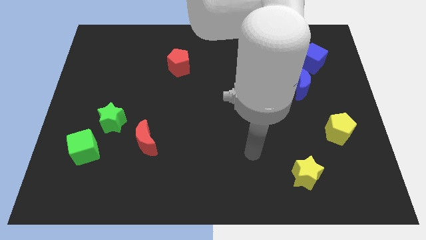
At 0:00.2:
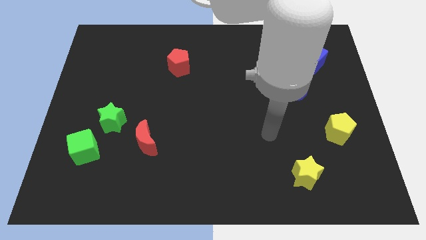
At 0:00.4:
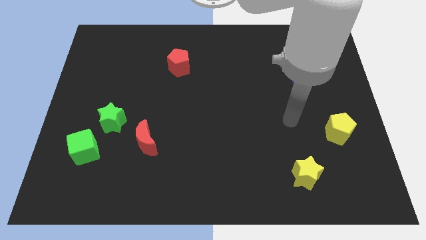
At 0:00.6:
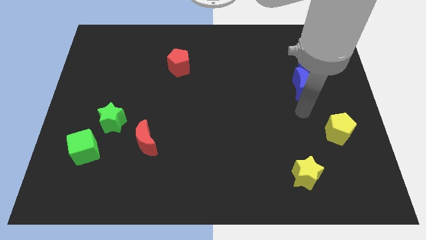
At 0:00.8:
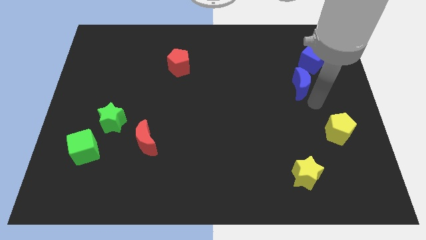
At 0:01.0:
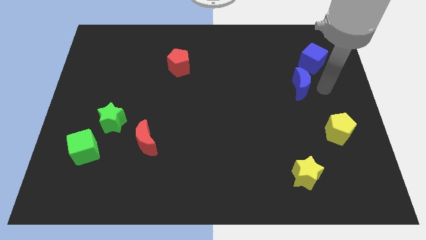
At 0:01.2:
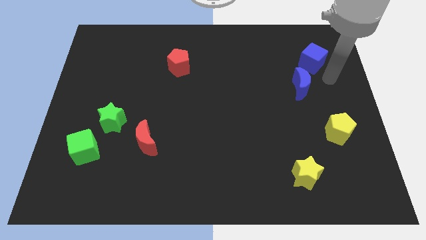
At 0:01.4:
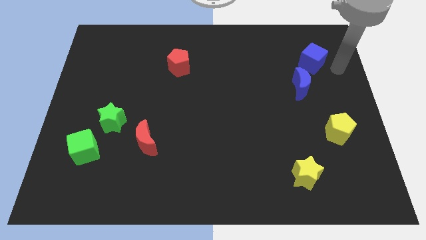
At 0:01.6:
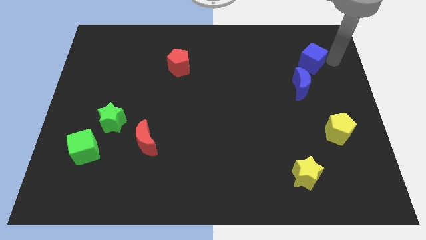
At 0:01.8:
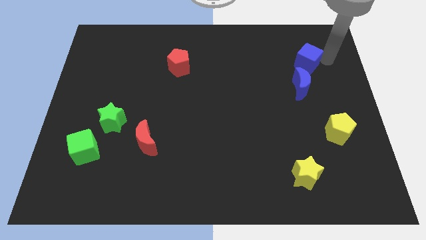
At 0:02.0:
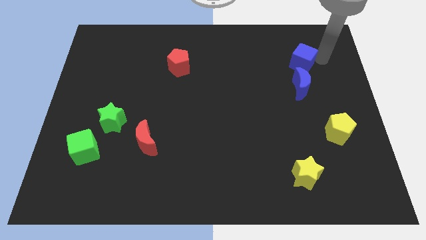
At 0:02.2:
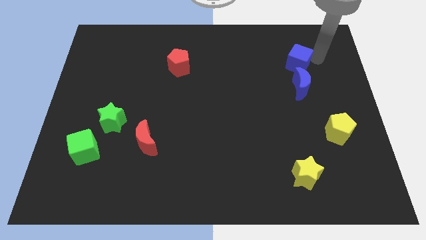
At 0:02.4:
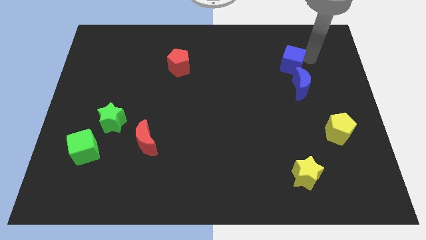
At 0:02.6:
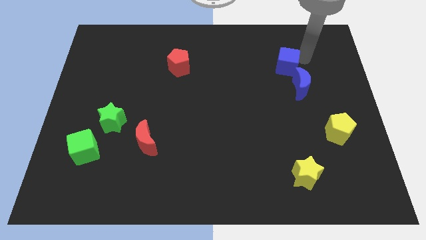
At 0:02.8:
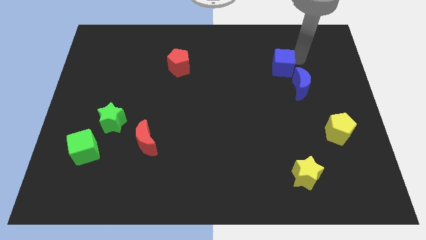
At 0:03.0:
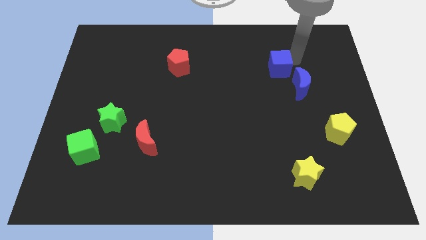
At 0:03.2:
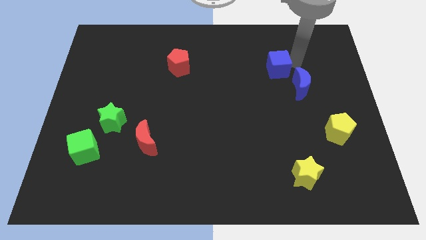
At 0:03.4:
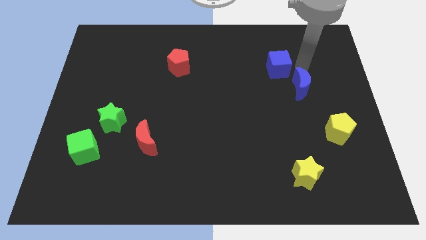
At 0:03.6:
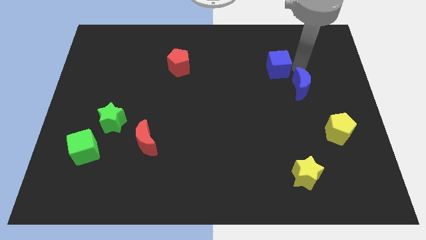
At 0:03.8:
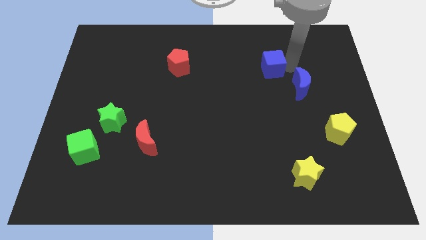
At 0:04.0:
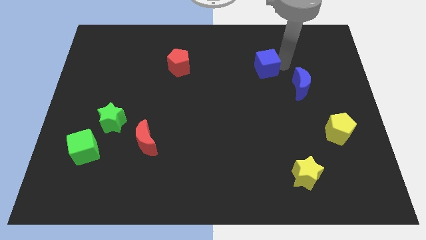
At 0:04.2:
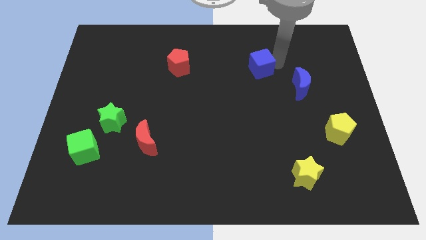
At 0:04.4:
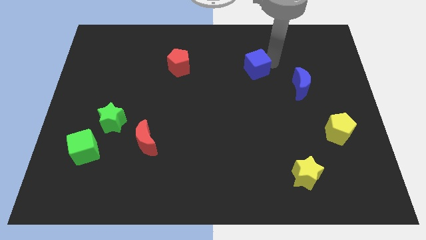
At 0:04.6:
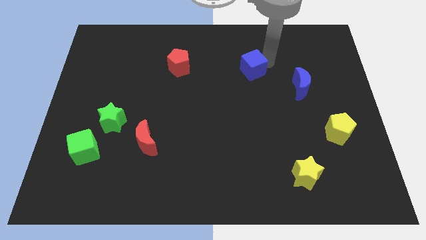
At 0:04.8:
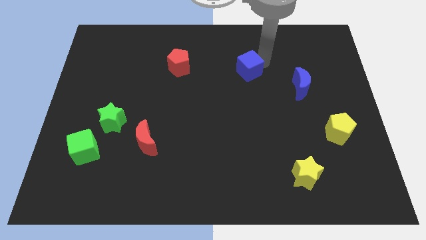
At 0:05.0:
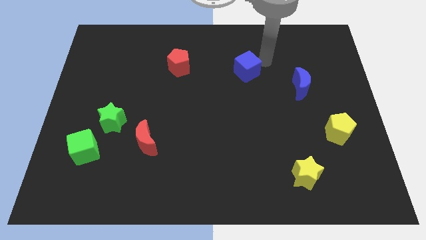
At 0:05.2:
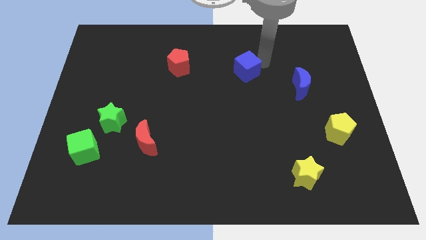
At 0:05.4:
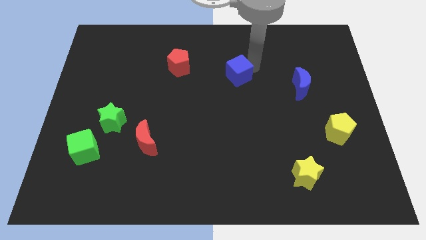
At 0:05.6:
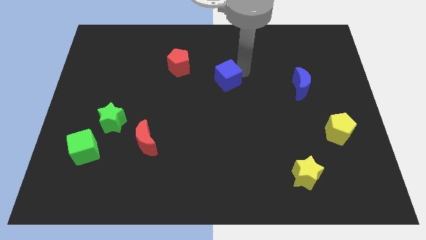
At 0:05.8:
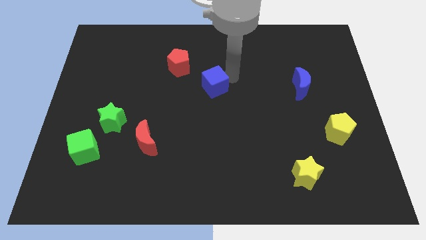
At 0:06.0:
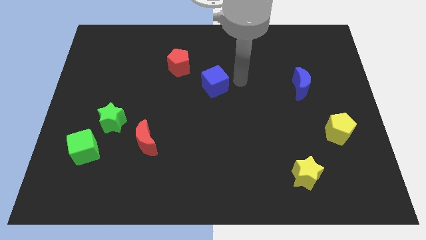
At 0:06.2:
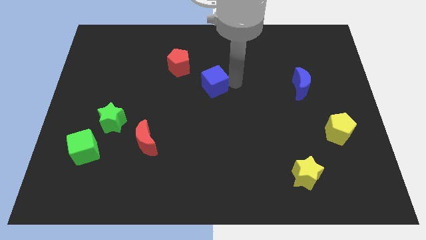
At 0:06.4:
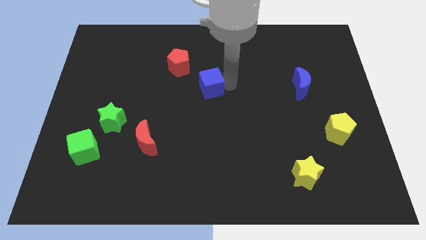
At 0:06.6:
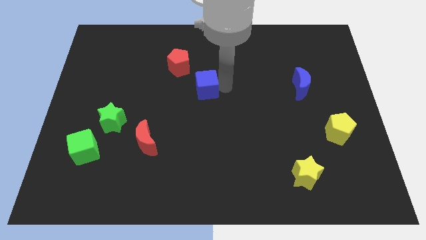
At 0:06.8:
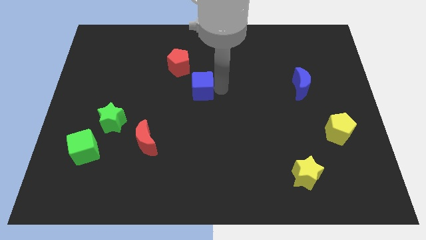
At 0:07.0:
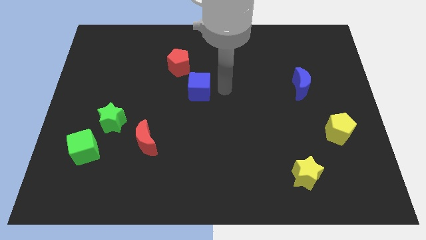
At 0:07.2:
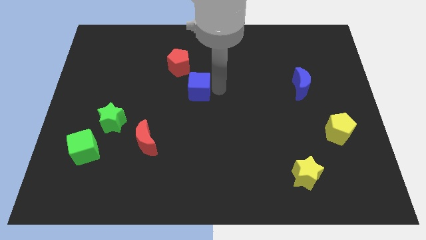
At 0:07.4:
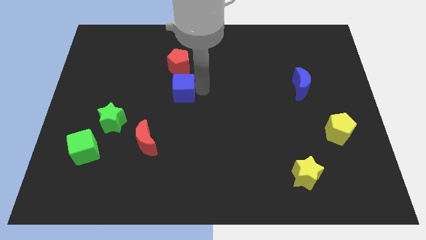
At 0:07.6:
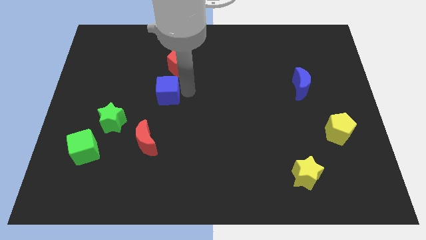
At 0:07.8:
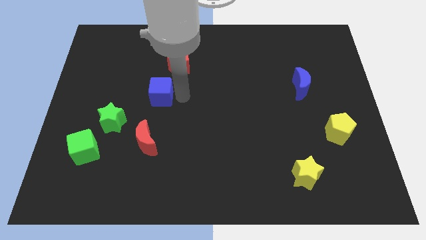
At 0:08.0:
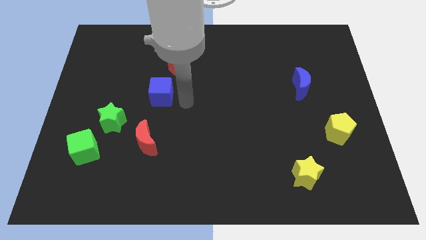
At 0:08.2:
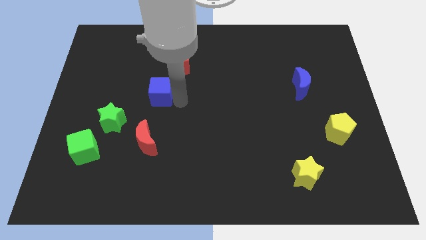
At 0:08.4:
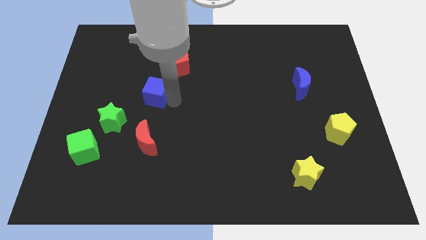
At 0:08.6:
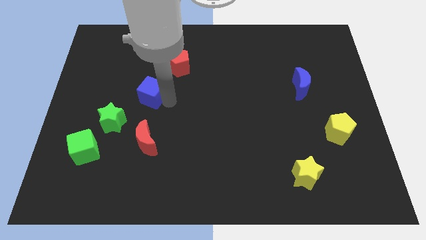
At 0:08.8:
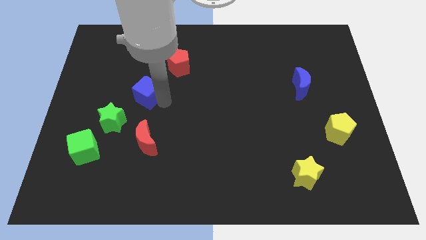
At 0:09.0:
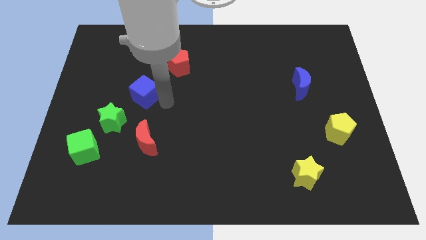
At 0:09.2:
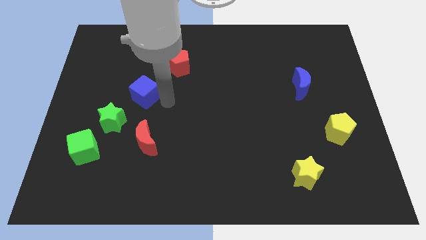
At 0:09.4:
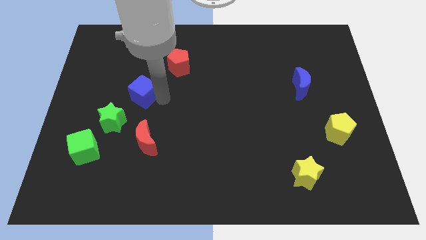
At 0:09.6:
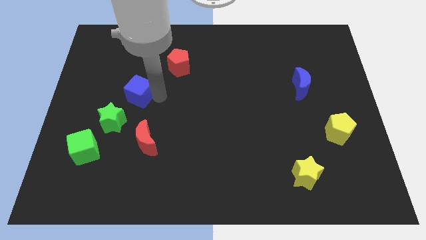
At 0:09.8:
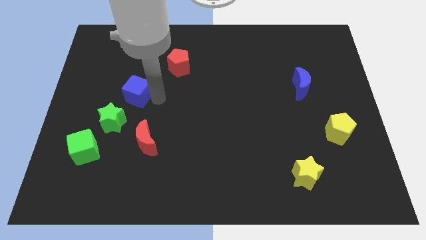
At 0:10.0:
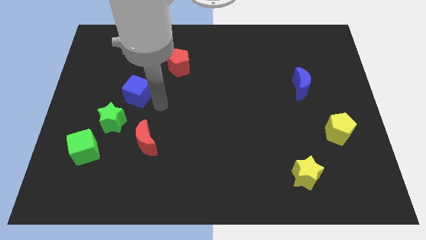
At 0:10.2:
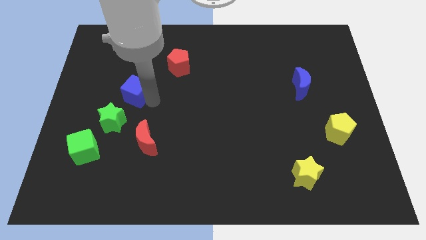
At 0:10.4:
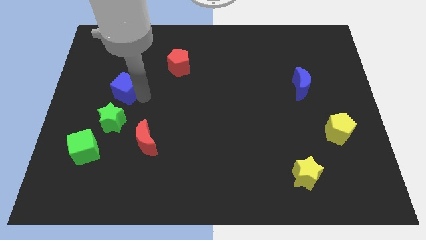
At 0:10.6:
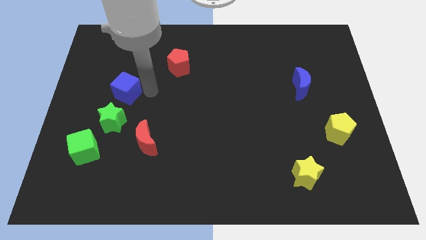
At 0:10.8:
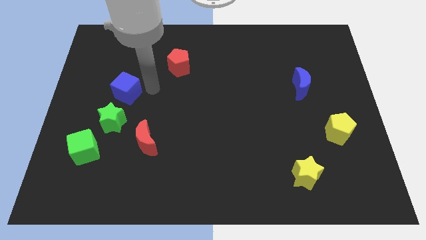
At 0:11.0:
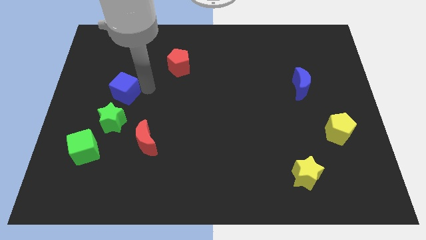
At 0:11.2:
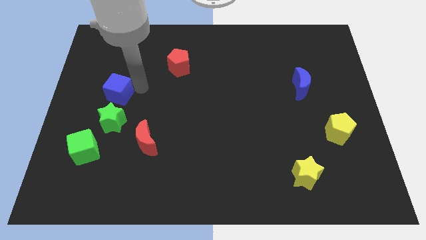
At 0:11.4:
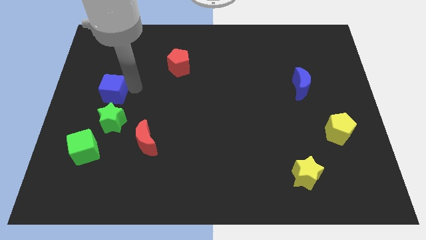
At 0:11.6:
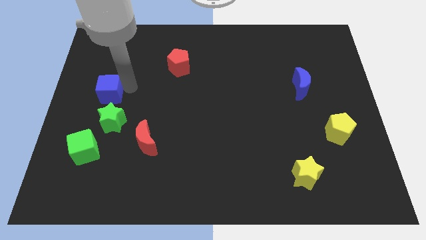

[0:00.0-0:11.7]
slide the blue cube to the left side

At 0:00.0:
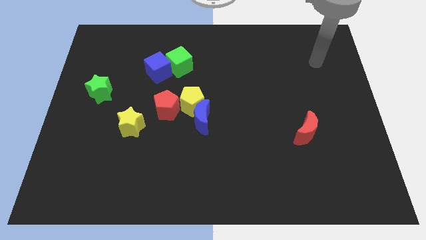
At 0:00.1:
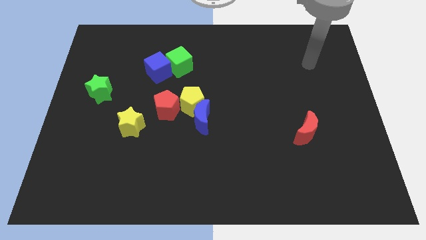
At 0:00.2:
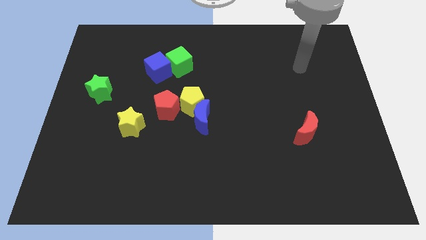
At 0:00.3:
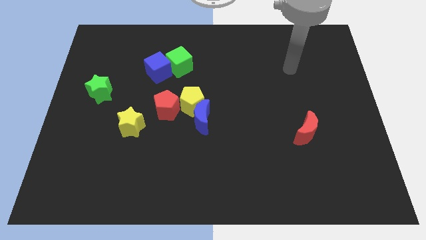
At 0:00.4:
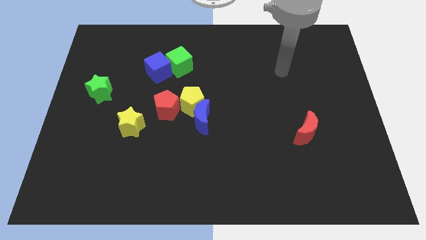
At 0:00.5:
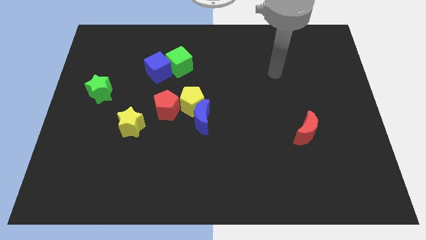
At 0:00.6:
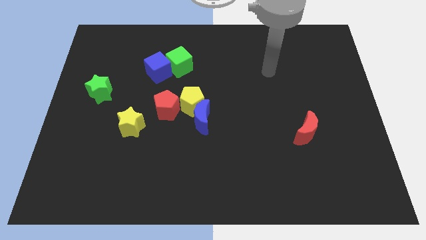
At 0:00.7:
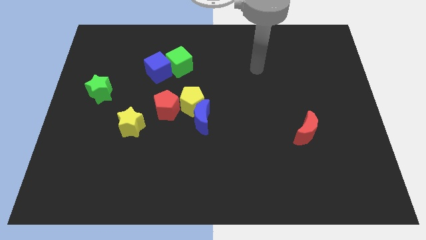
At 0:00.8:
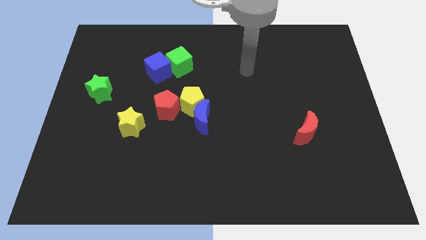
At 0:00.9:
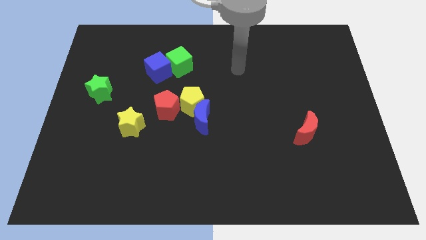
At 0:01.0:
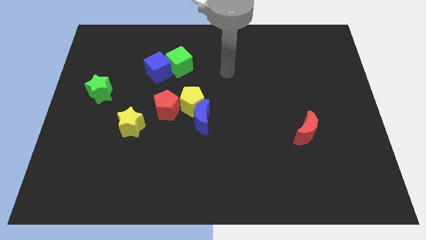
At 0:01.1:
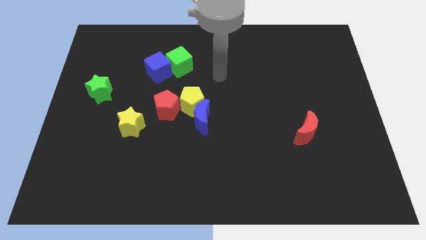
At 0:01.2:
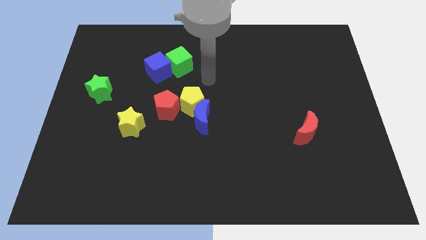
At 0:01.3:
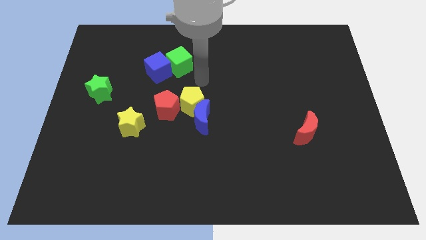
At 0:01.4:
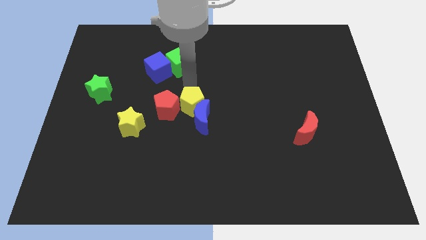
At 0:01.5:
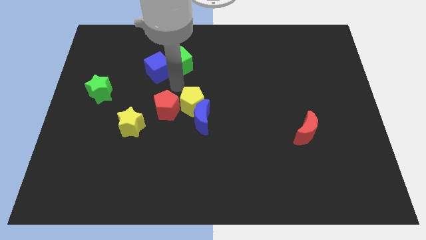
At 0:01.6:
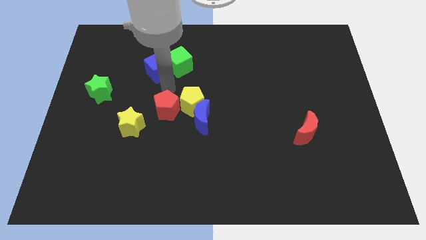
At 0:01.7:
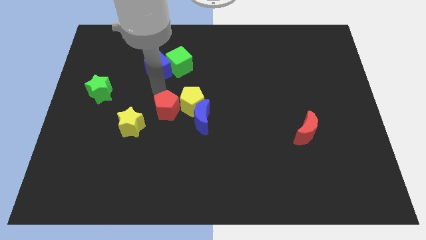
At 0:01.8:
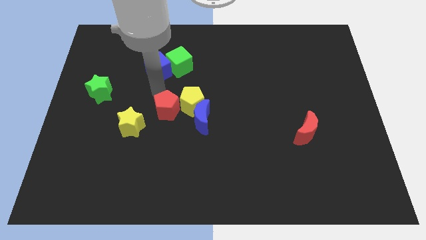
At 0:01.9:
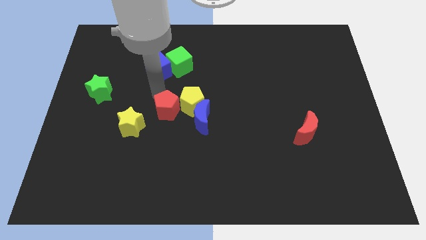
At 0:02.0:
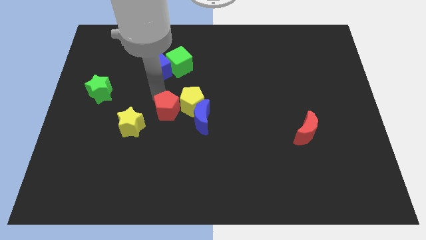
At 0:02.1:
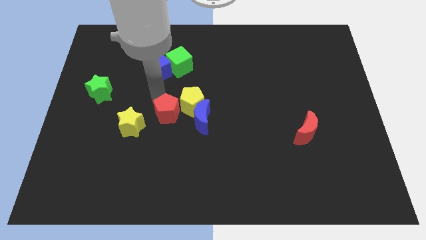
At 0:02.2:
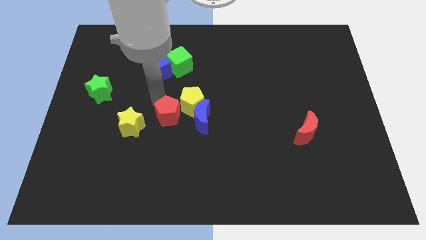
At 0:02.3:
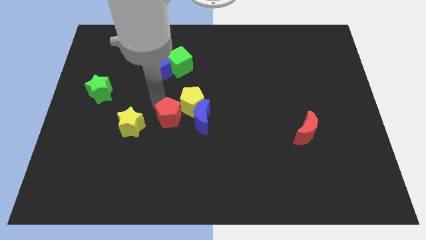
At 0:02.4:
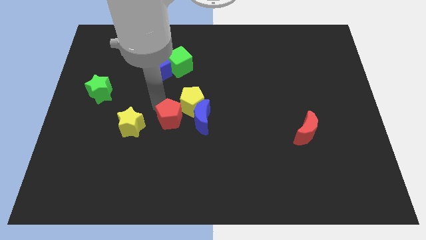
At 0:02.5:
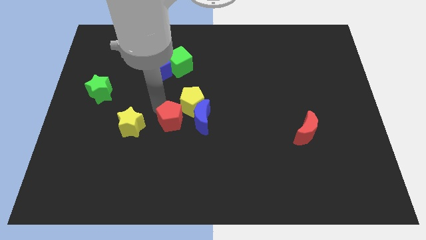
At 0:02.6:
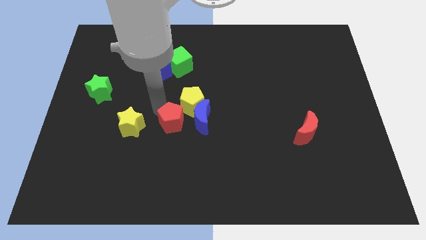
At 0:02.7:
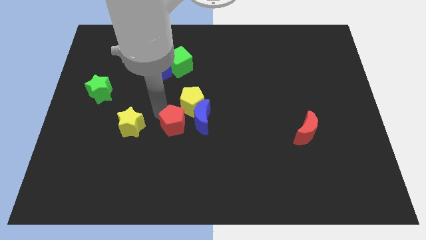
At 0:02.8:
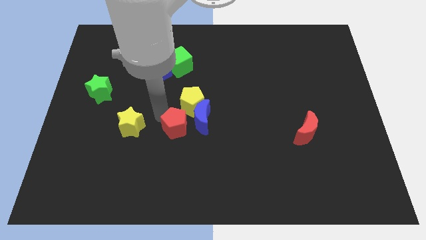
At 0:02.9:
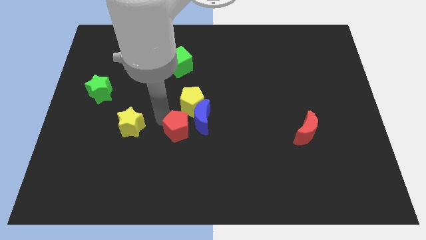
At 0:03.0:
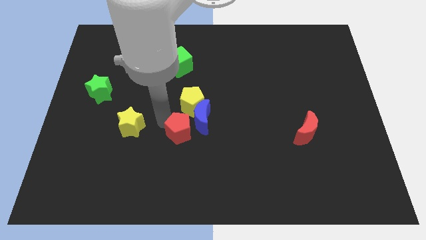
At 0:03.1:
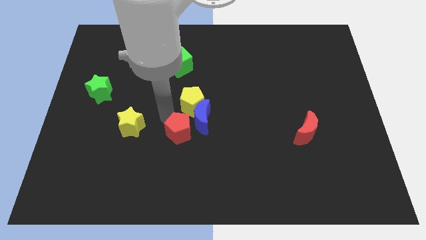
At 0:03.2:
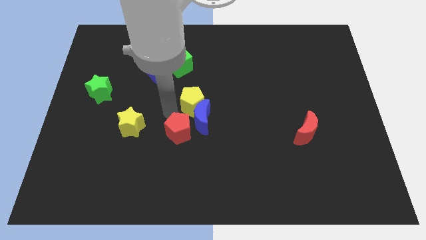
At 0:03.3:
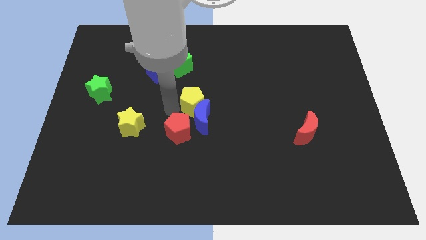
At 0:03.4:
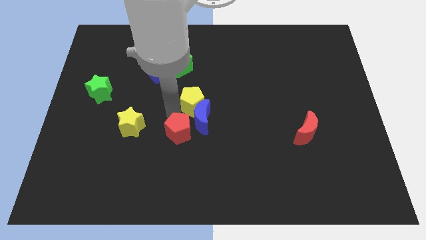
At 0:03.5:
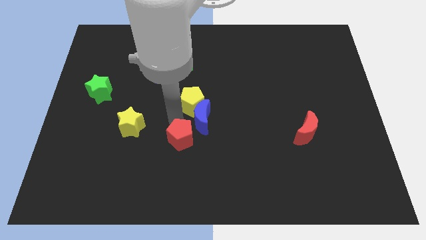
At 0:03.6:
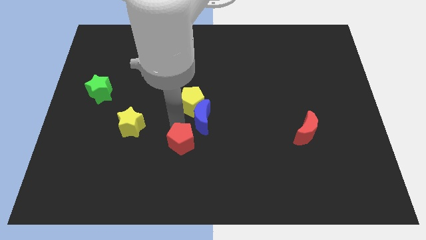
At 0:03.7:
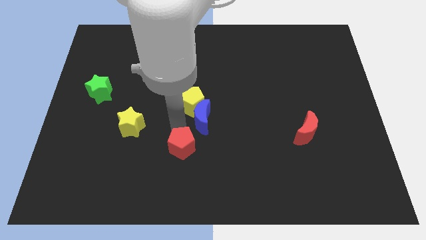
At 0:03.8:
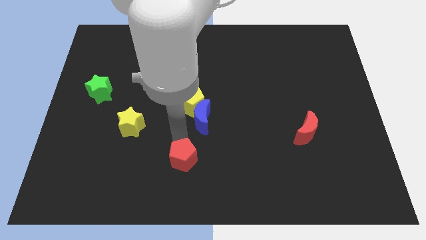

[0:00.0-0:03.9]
put the red pentagon to the bottom
